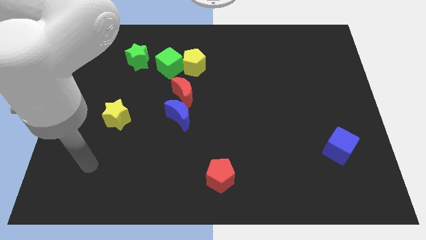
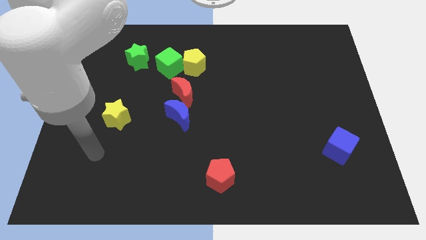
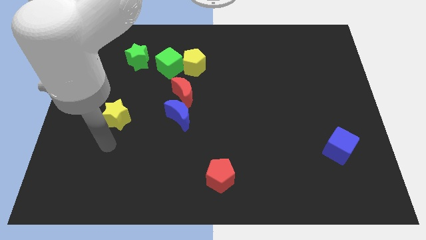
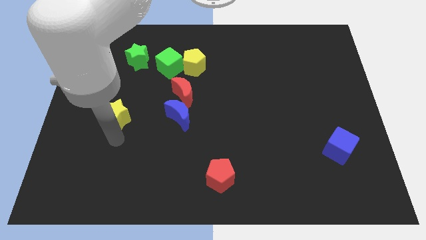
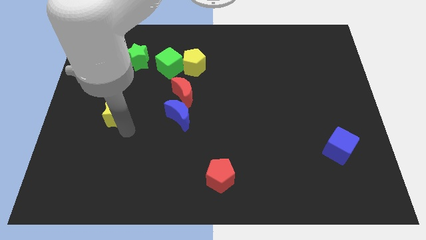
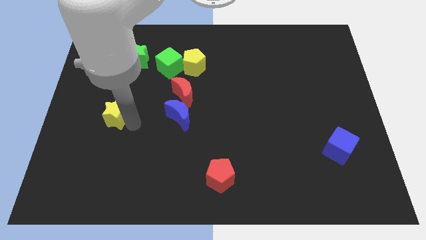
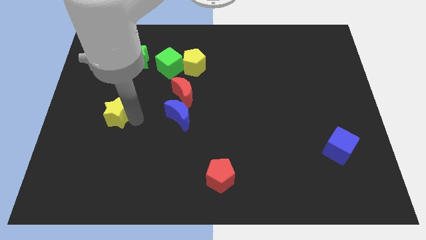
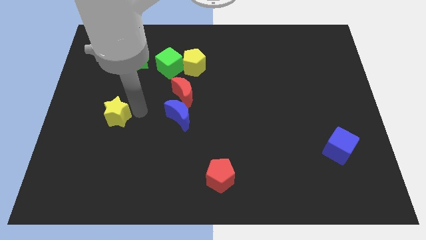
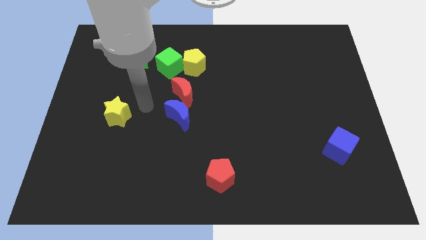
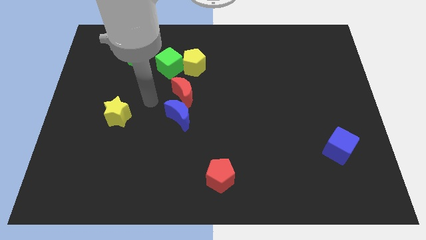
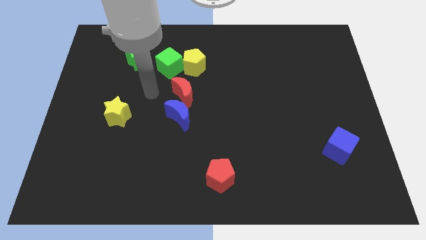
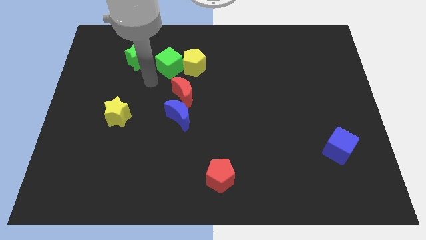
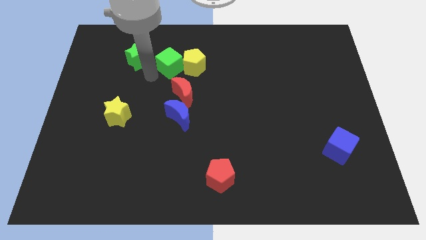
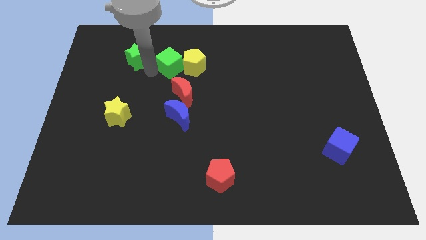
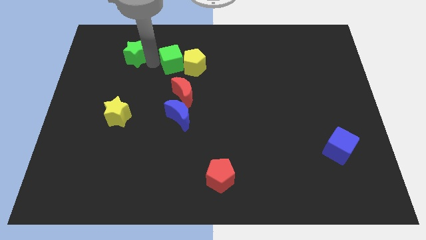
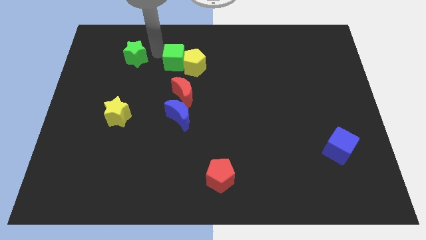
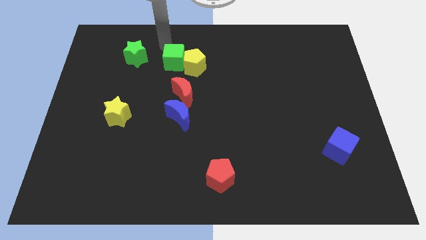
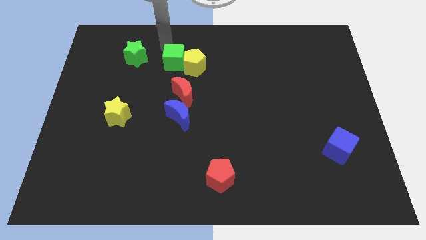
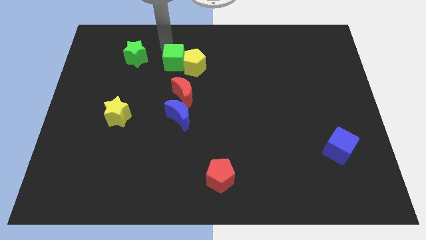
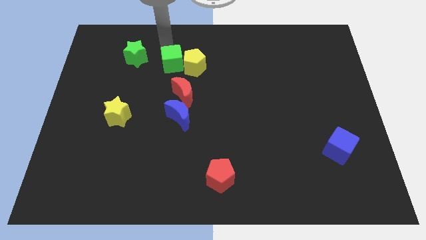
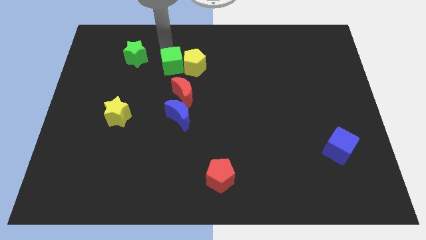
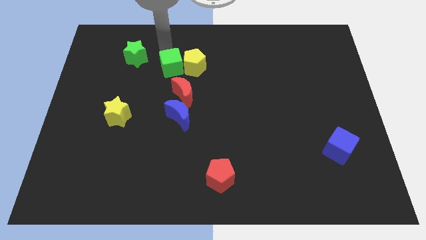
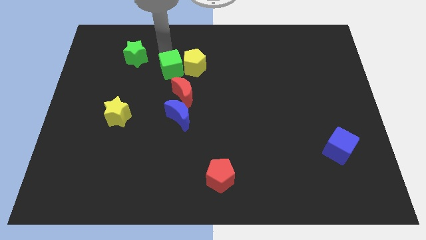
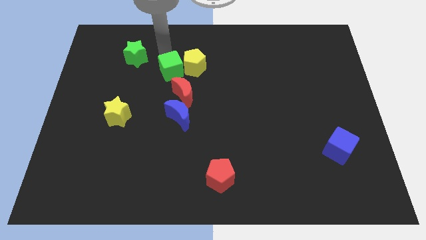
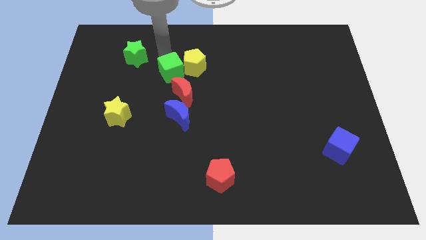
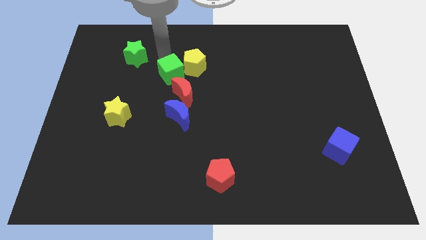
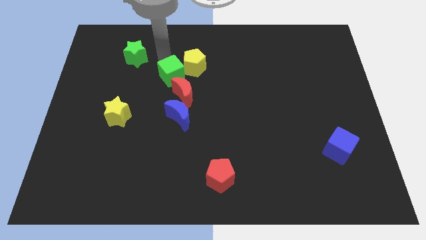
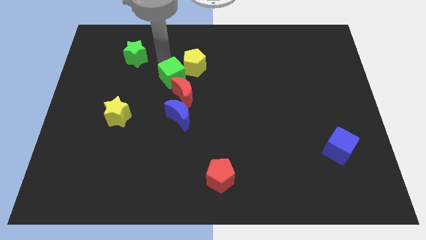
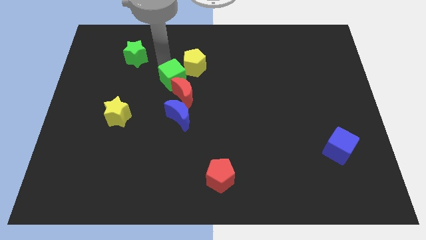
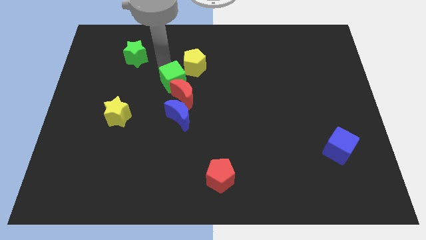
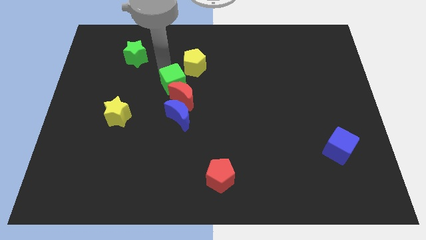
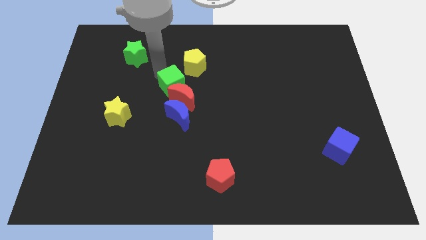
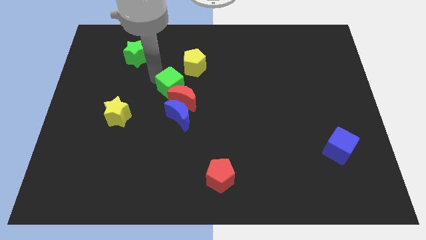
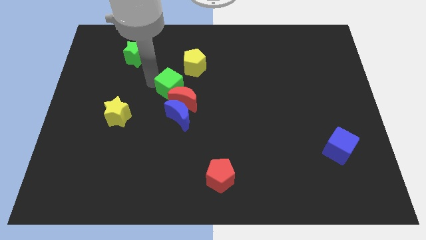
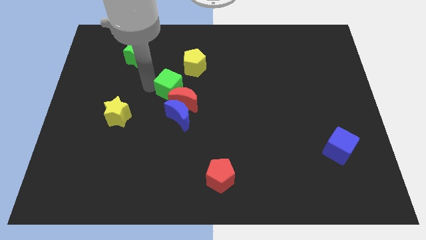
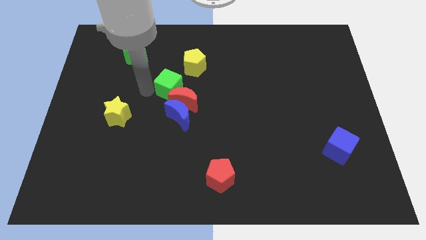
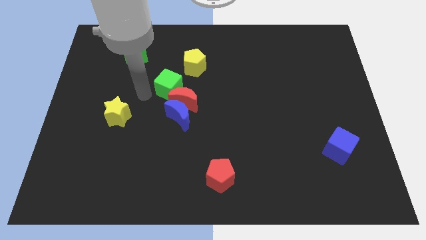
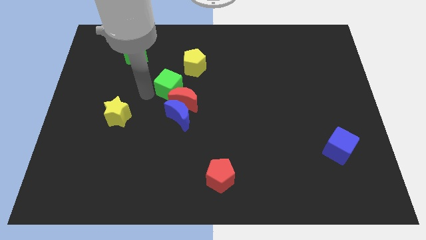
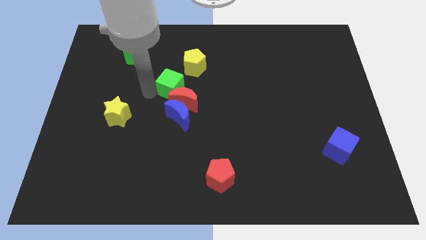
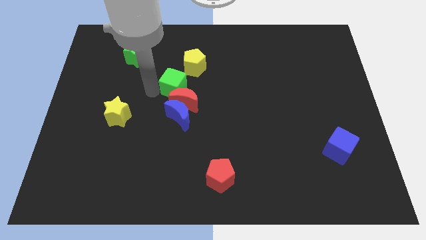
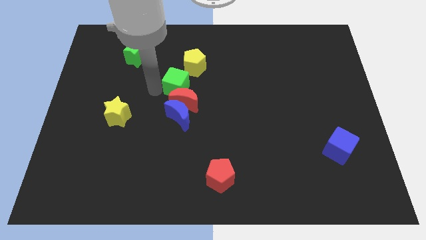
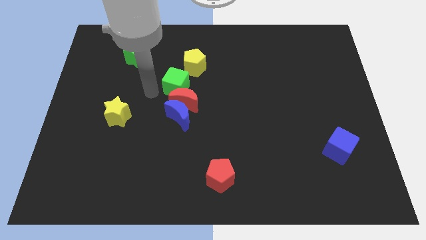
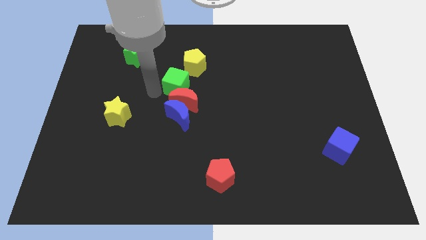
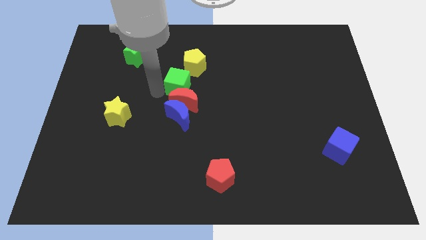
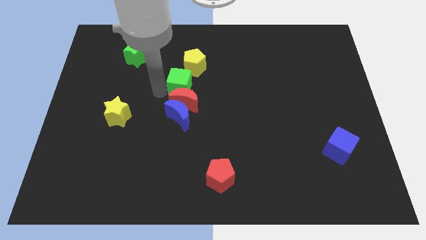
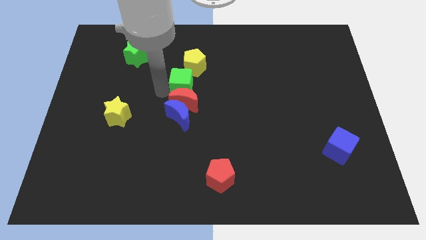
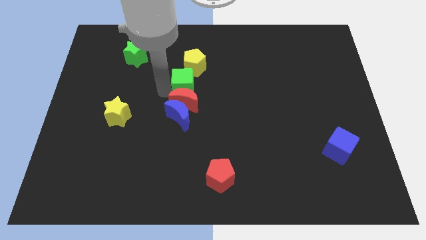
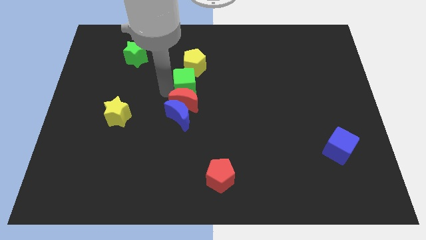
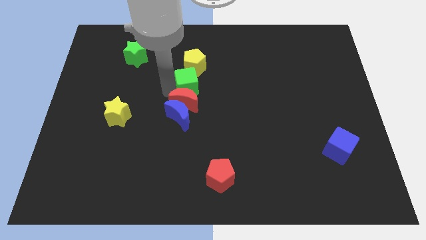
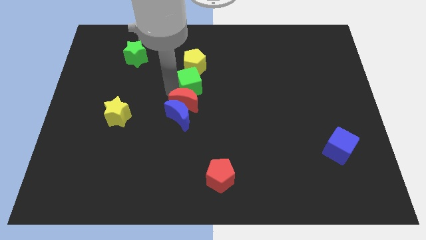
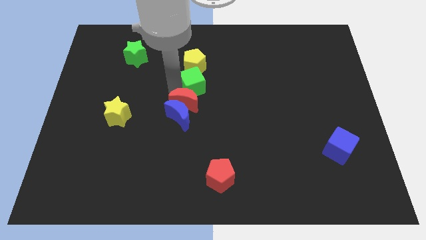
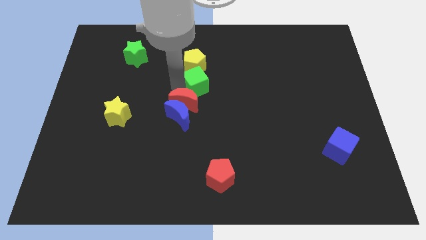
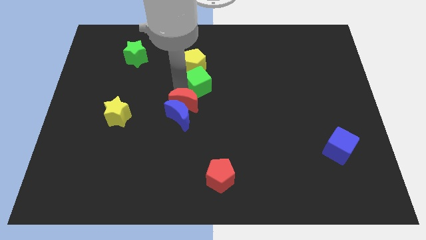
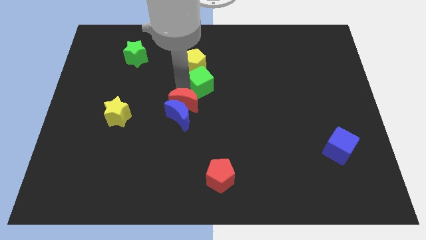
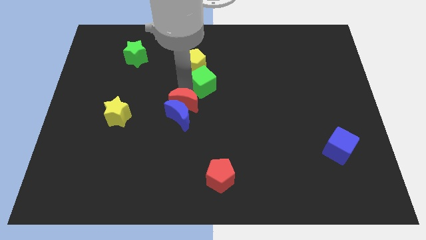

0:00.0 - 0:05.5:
push the green cube a bit to the right

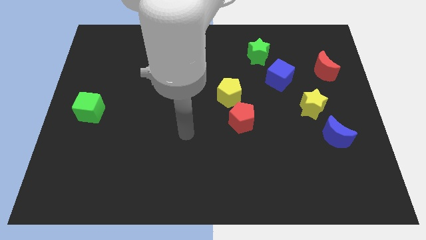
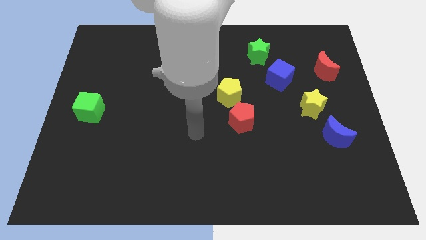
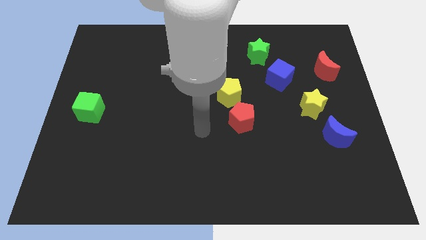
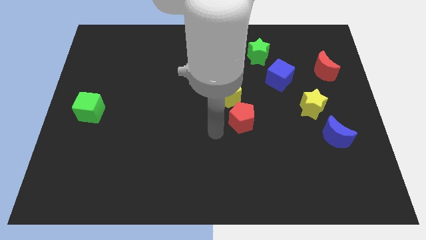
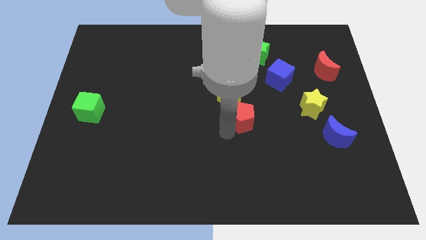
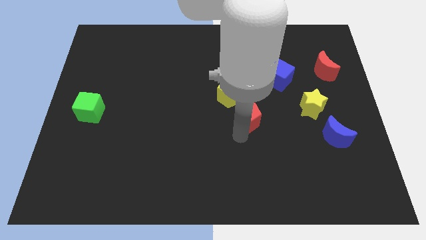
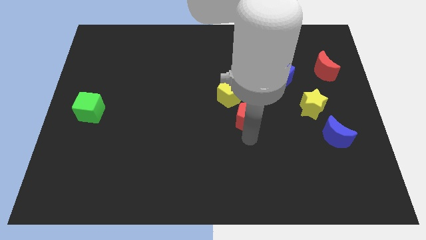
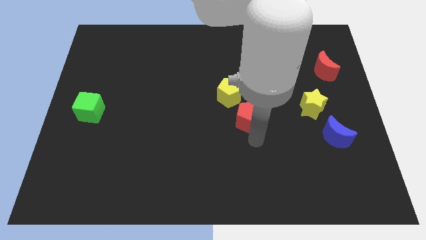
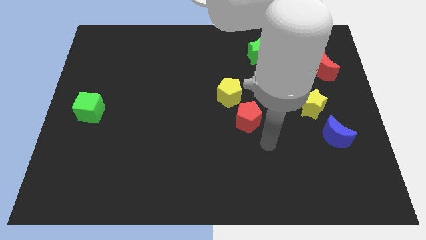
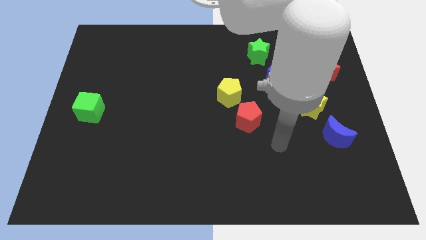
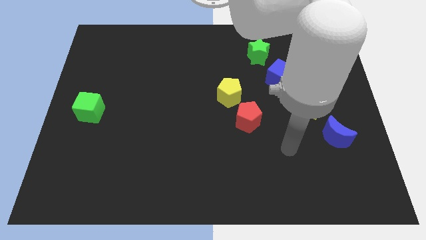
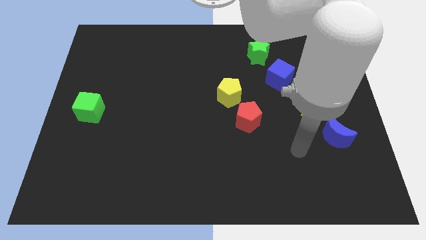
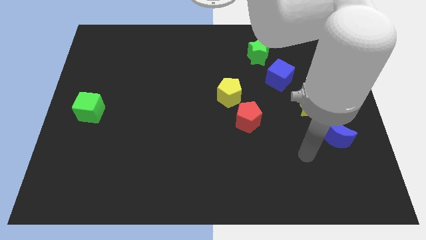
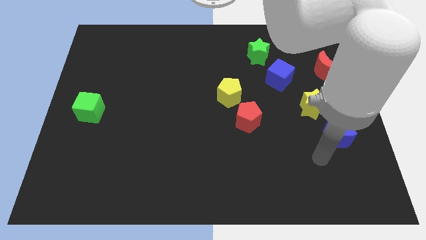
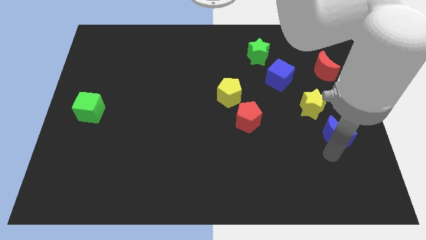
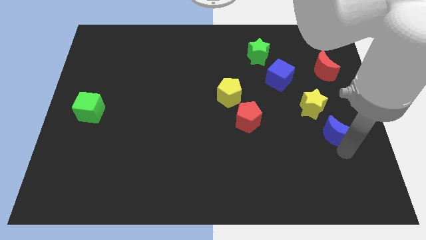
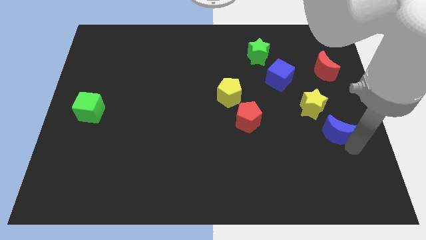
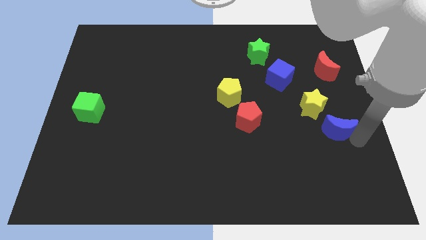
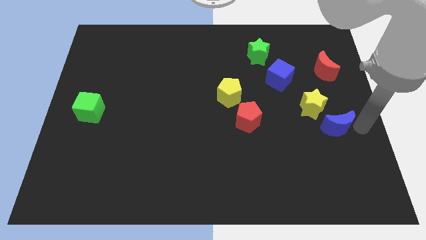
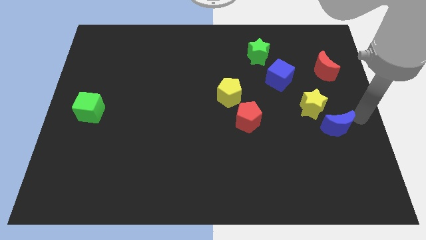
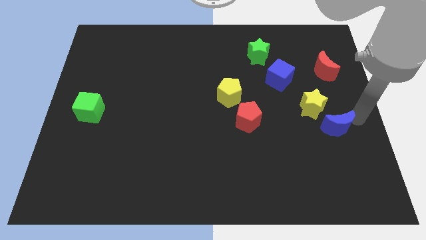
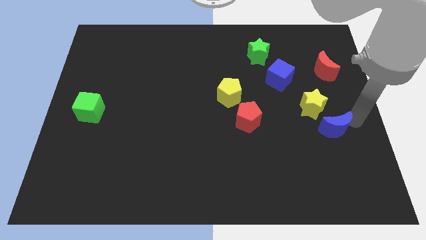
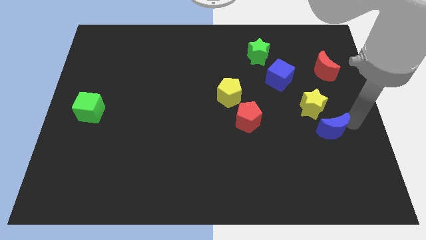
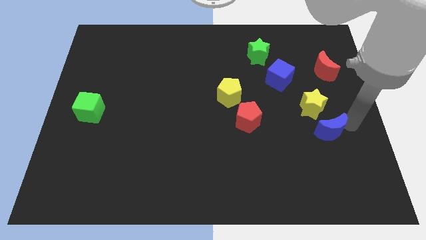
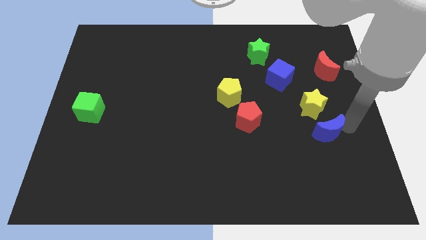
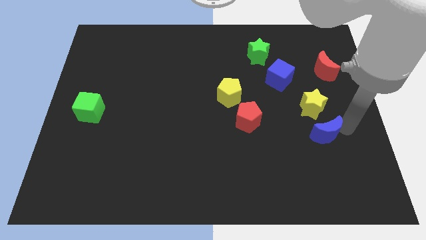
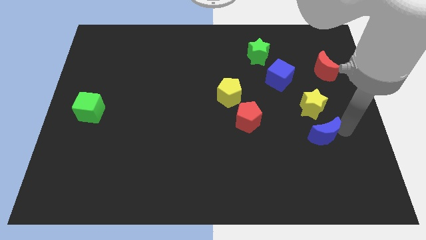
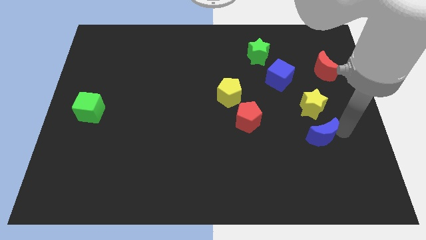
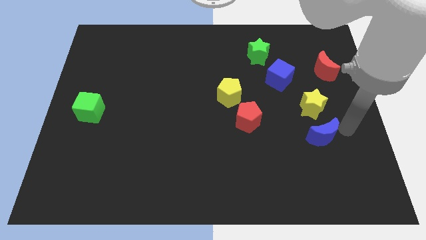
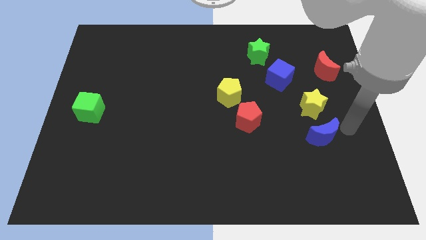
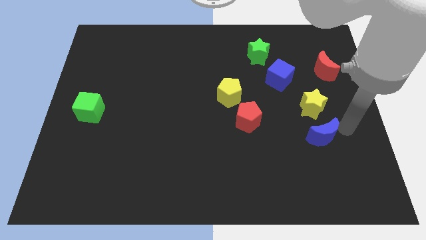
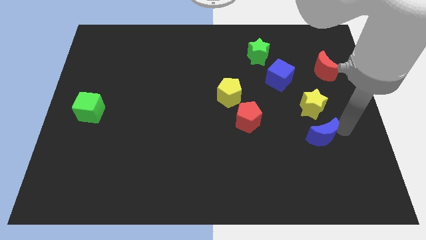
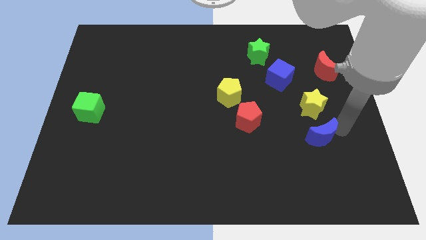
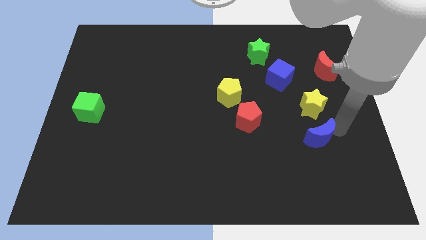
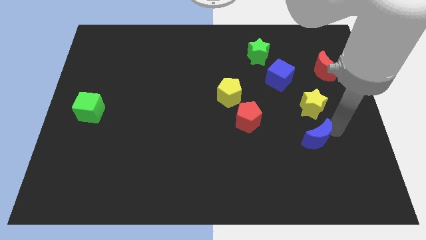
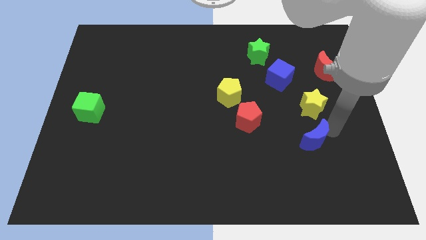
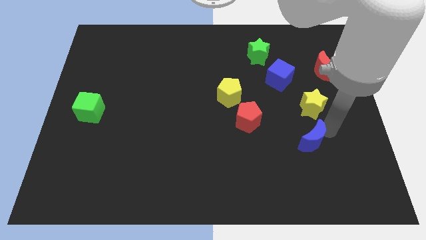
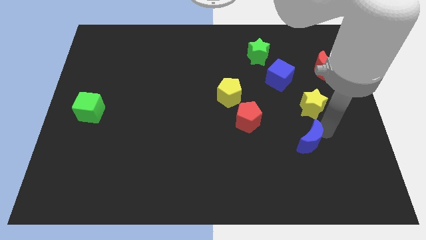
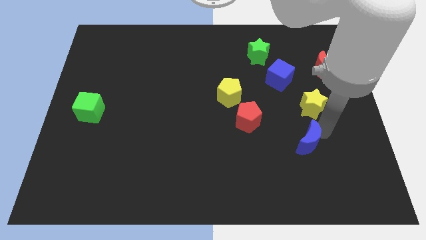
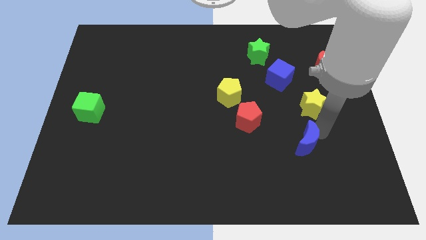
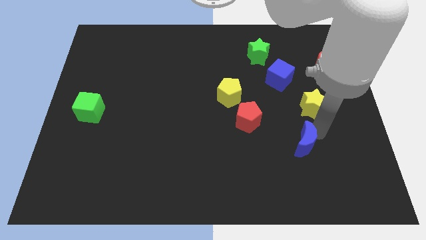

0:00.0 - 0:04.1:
slide the blue moon left a bit
